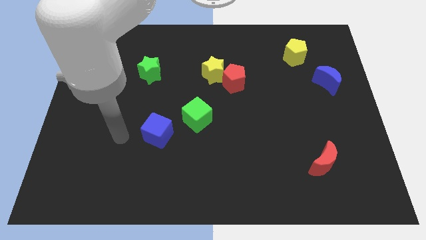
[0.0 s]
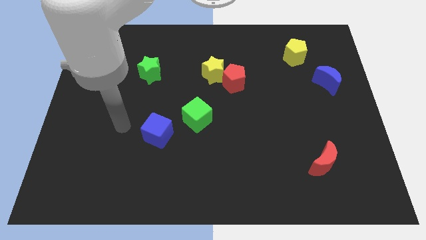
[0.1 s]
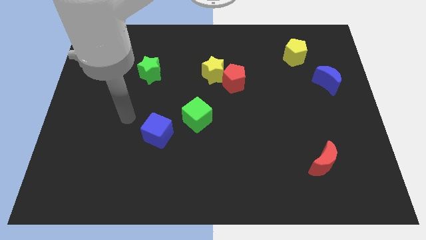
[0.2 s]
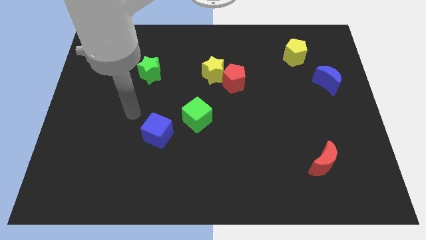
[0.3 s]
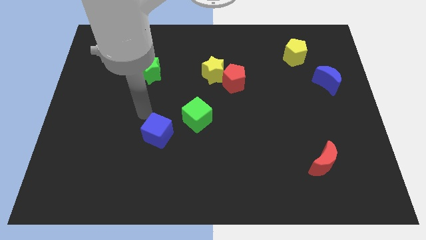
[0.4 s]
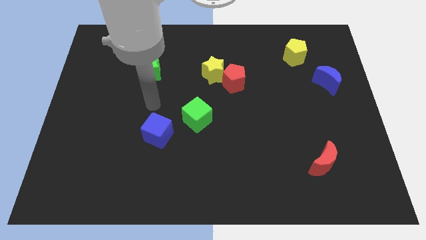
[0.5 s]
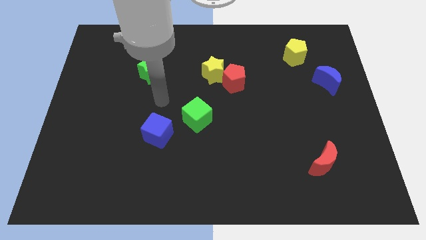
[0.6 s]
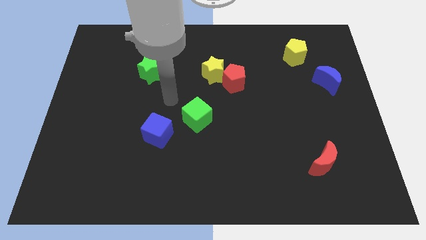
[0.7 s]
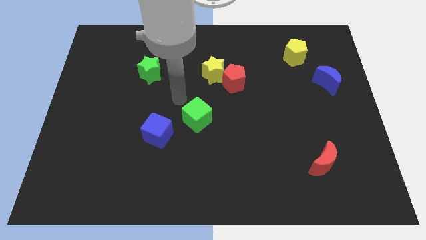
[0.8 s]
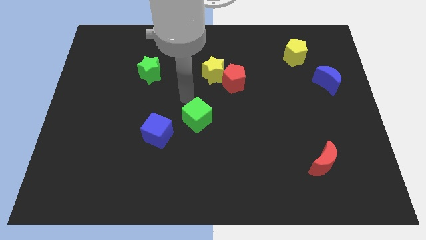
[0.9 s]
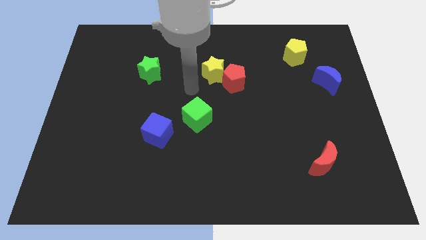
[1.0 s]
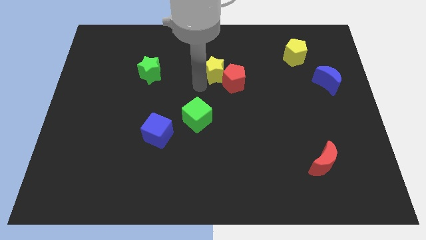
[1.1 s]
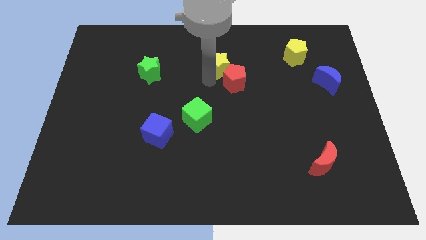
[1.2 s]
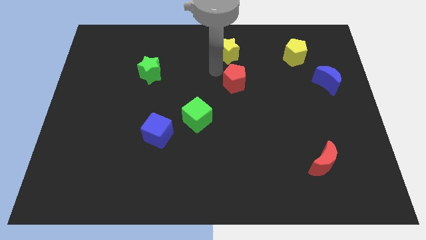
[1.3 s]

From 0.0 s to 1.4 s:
separate the red pentagon from the yellow star

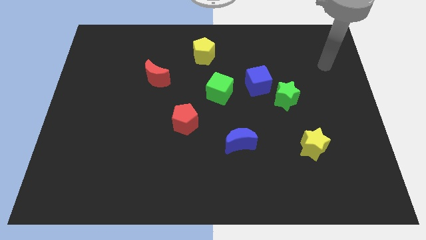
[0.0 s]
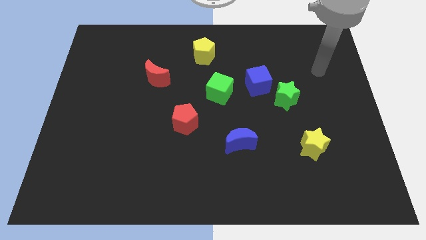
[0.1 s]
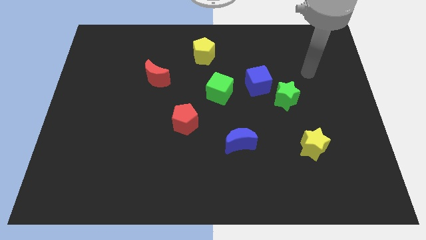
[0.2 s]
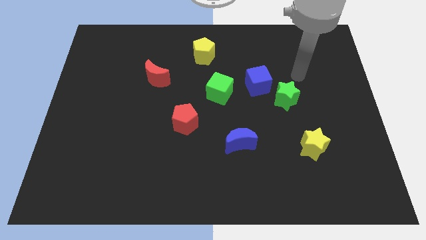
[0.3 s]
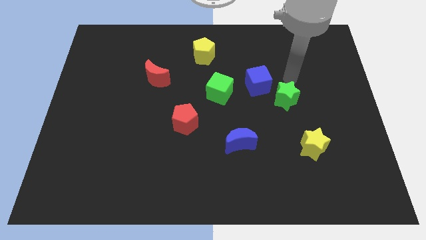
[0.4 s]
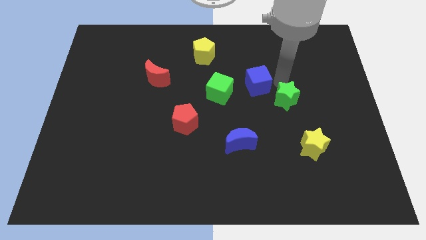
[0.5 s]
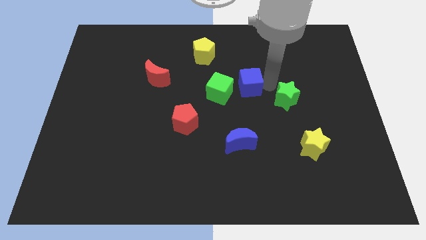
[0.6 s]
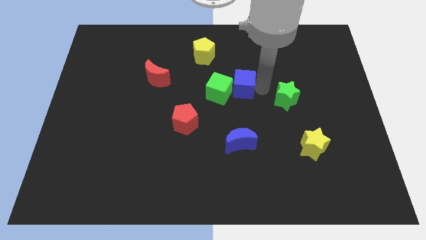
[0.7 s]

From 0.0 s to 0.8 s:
move the green star away from the blue cube

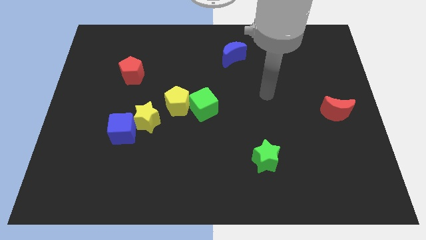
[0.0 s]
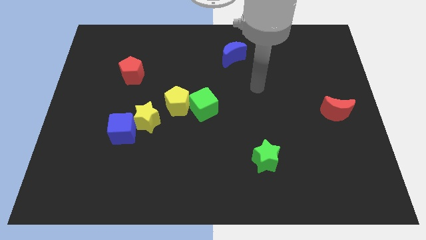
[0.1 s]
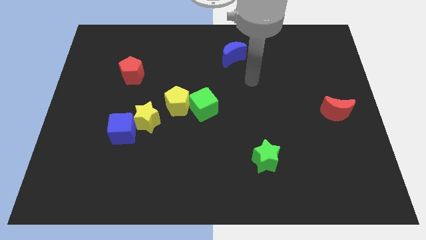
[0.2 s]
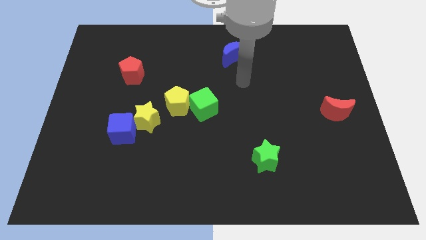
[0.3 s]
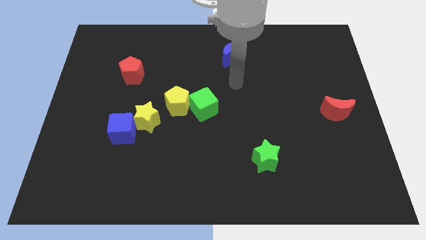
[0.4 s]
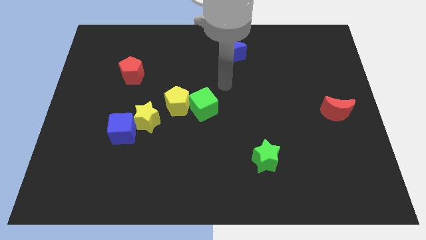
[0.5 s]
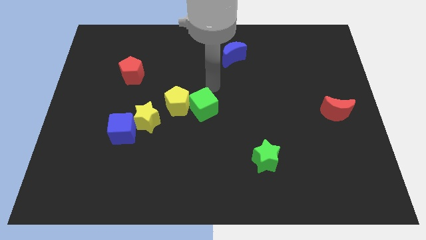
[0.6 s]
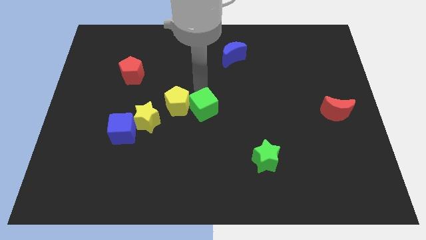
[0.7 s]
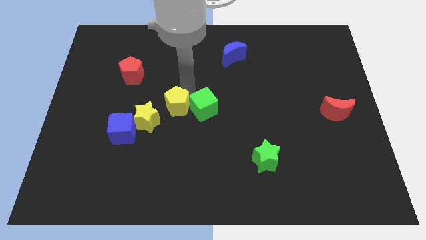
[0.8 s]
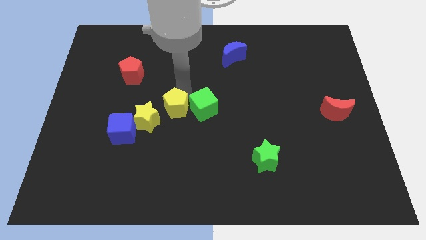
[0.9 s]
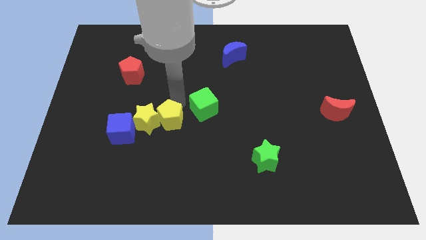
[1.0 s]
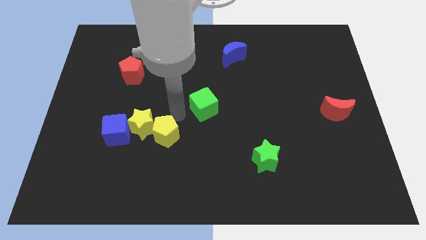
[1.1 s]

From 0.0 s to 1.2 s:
move the green cube away from the yellow pentagon

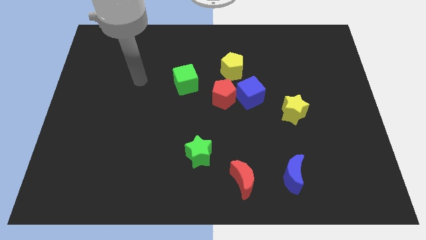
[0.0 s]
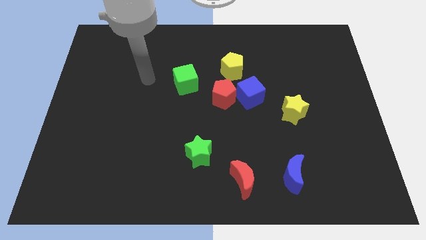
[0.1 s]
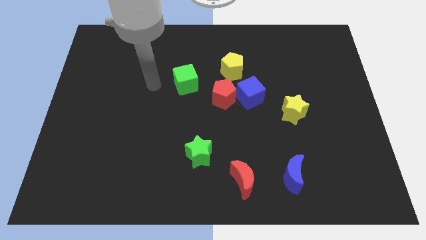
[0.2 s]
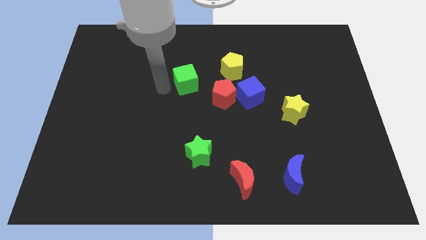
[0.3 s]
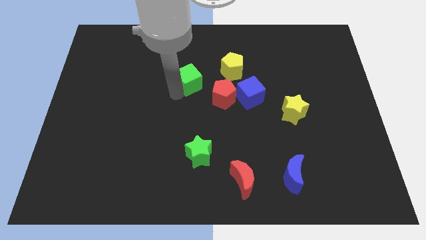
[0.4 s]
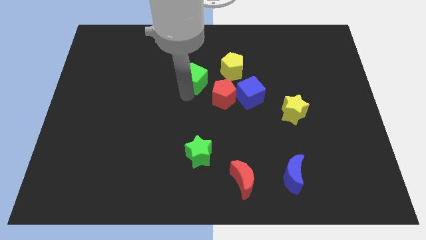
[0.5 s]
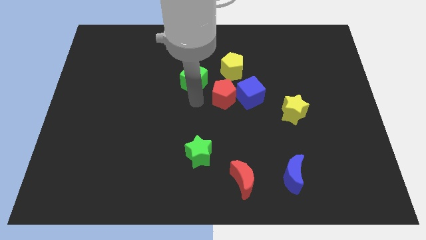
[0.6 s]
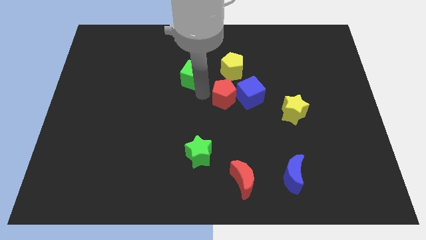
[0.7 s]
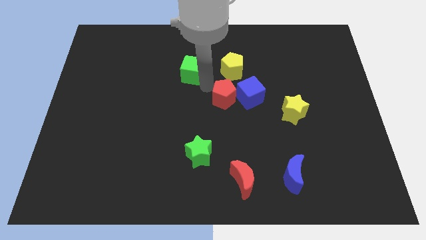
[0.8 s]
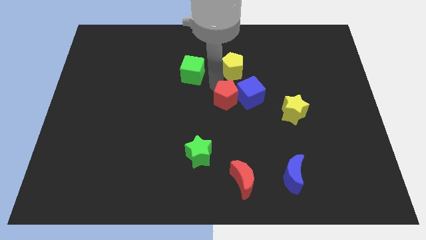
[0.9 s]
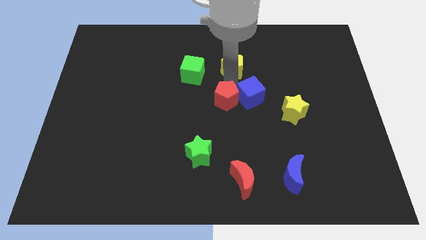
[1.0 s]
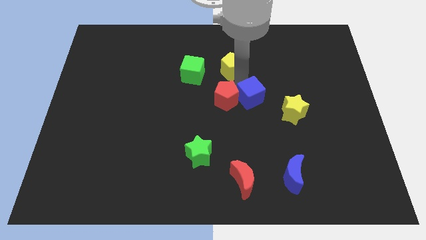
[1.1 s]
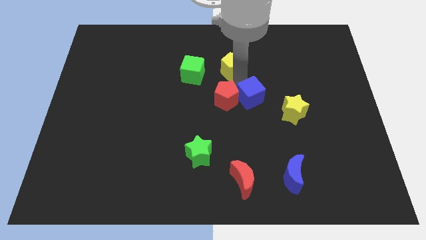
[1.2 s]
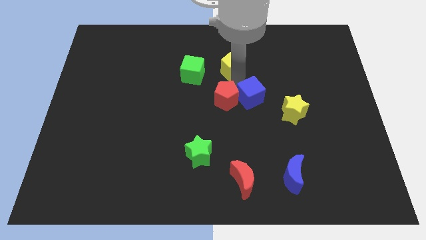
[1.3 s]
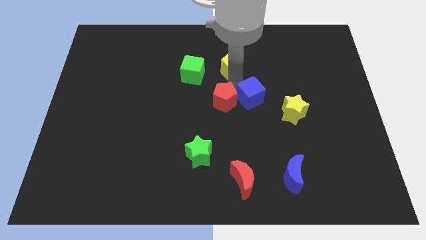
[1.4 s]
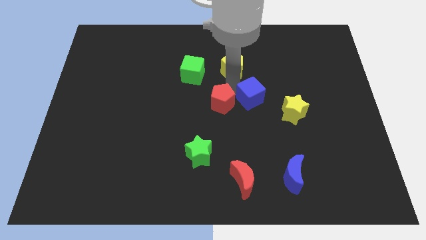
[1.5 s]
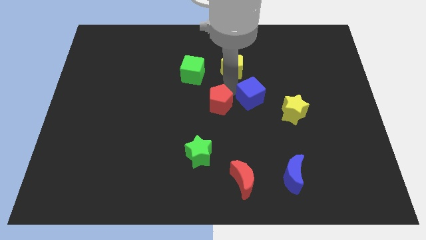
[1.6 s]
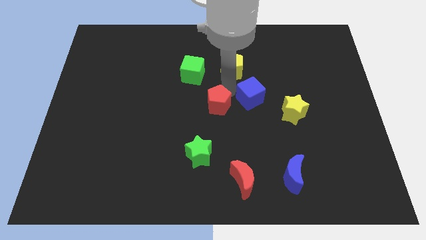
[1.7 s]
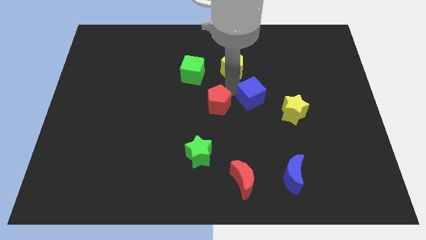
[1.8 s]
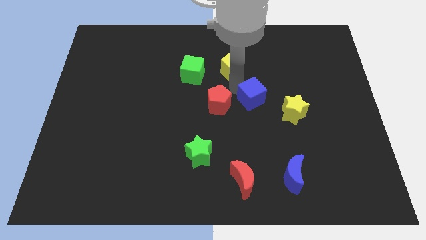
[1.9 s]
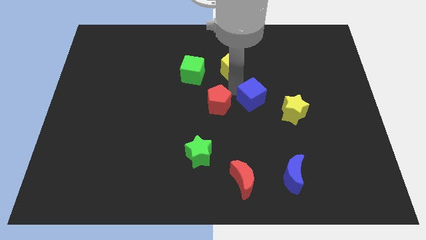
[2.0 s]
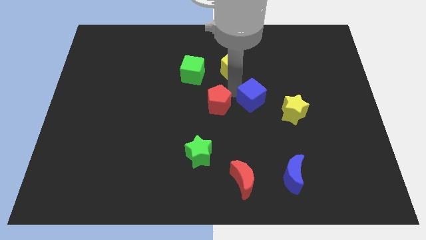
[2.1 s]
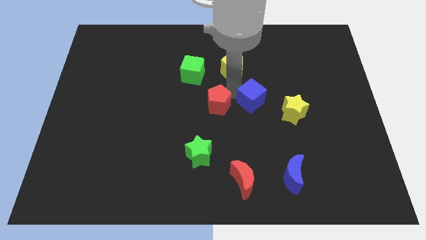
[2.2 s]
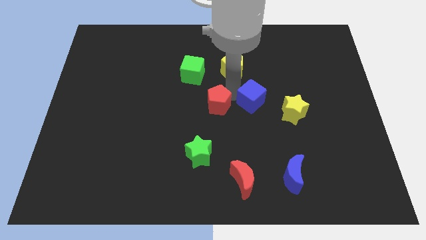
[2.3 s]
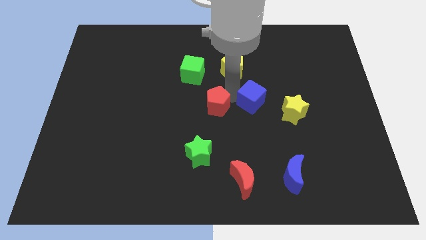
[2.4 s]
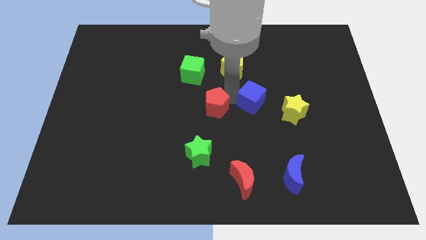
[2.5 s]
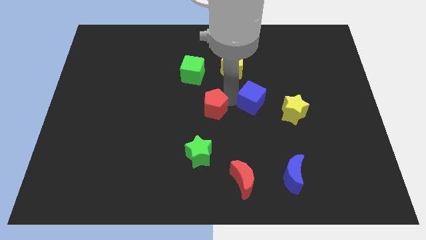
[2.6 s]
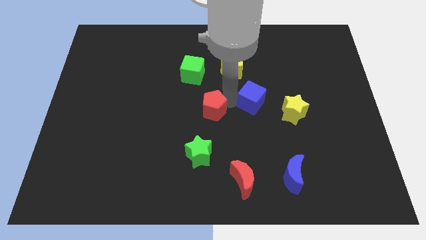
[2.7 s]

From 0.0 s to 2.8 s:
move the red pentagon away from the blue cube and yellow pentagon

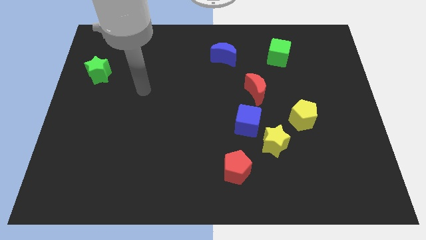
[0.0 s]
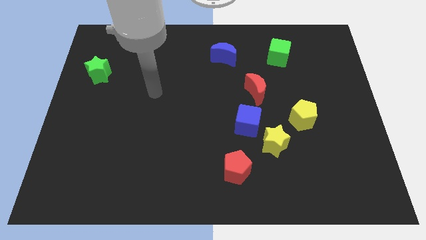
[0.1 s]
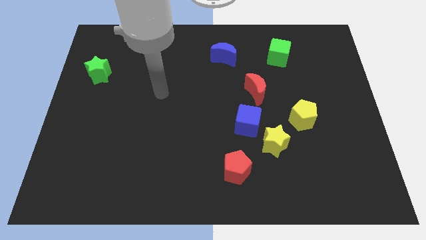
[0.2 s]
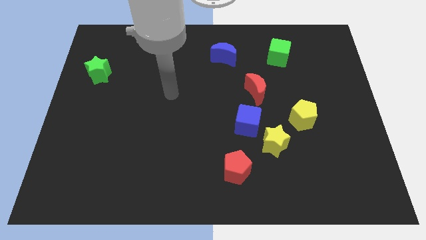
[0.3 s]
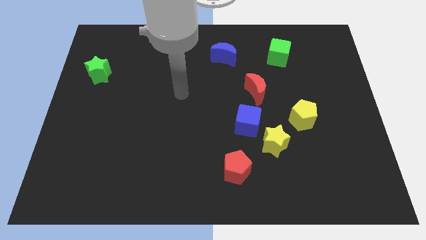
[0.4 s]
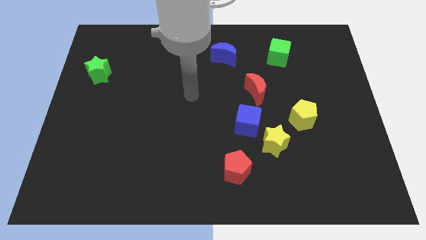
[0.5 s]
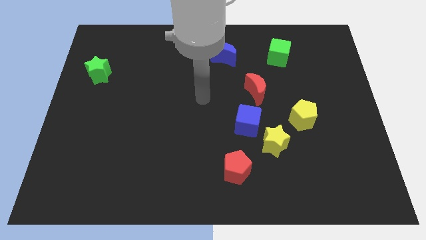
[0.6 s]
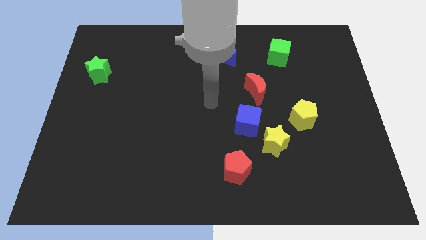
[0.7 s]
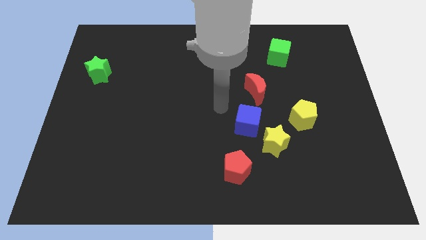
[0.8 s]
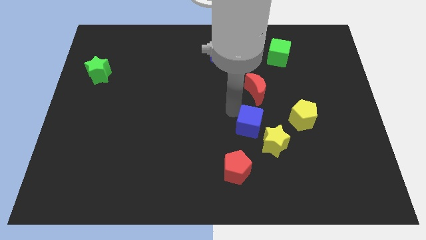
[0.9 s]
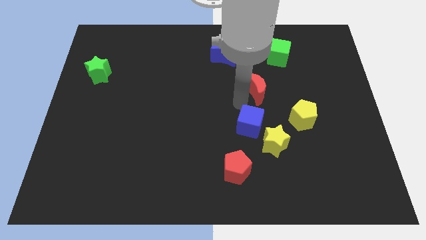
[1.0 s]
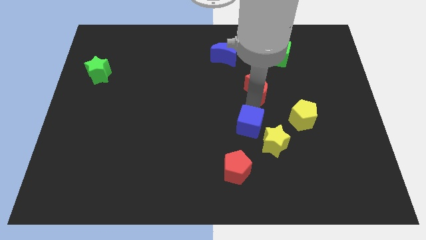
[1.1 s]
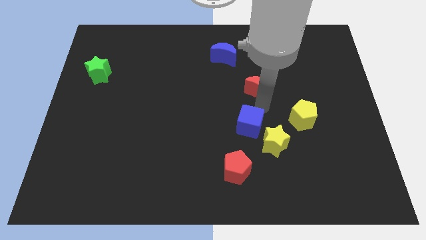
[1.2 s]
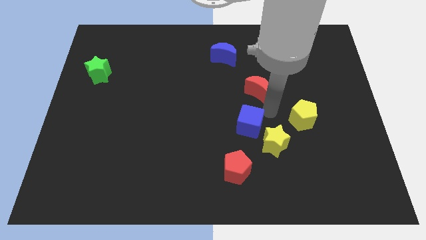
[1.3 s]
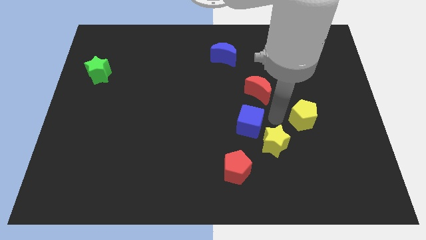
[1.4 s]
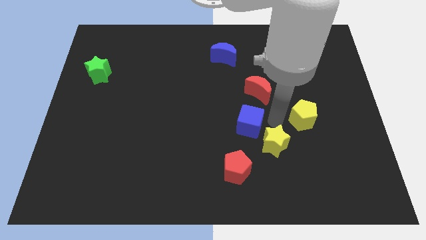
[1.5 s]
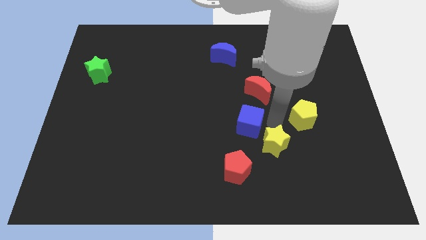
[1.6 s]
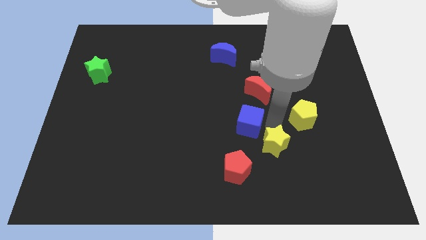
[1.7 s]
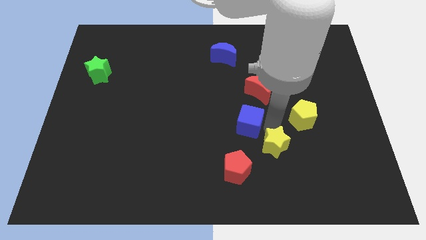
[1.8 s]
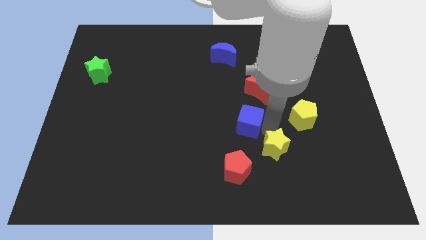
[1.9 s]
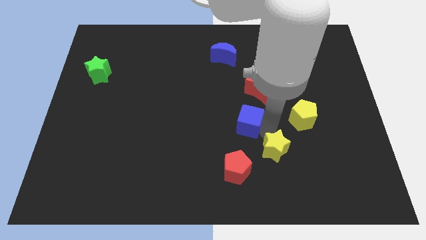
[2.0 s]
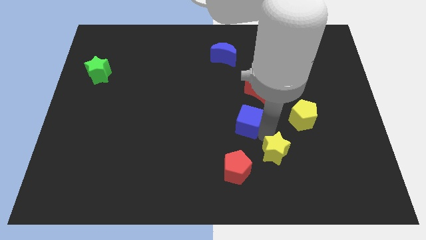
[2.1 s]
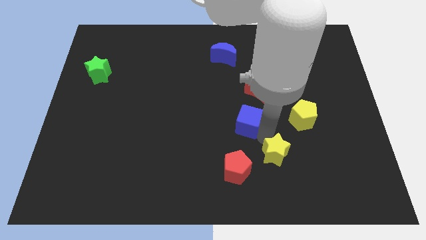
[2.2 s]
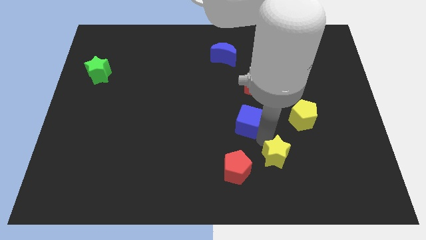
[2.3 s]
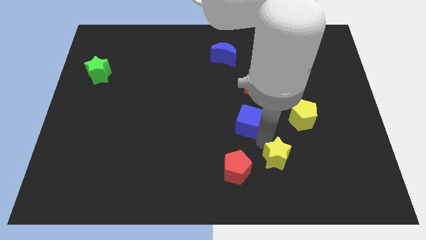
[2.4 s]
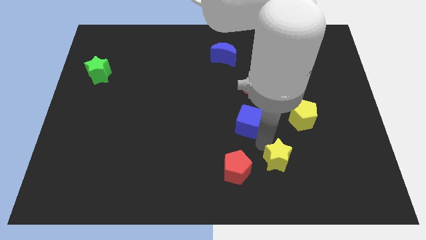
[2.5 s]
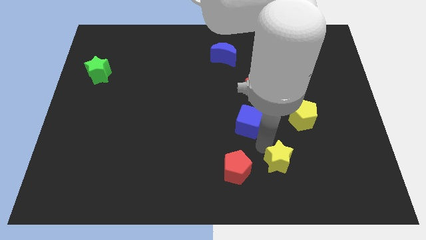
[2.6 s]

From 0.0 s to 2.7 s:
pull the yellow star apart from the blue cube and yellow pentagon

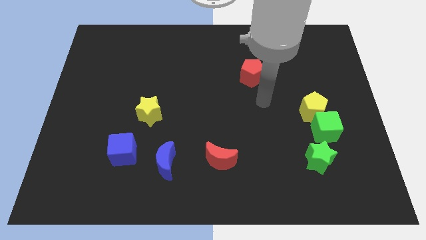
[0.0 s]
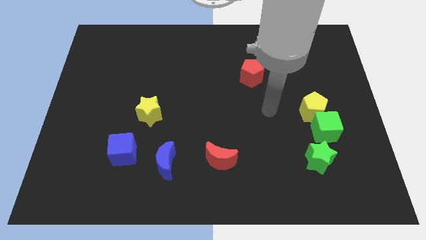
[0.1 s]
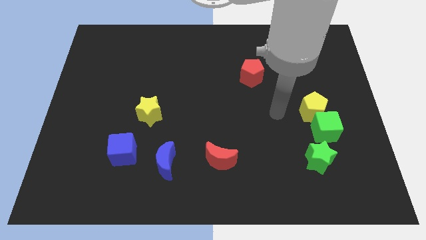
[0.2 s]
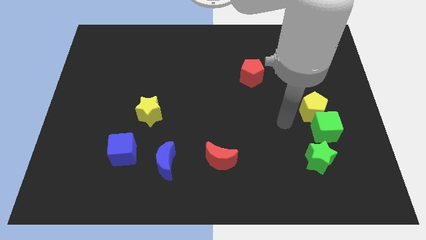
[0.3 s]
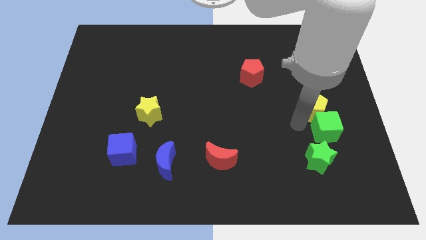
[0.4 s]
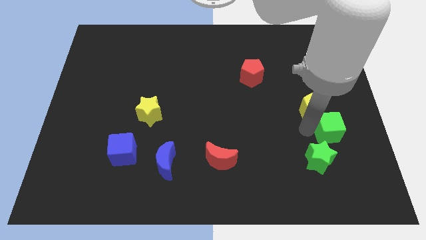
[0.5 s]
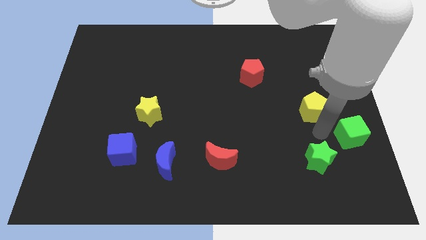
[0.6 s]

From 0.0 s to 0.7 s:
move the yellow pentagon away from the green cube
